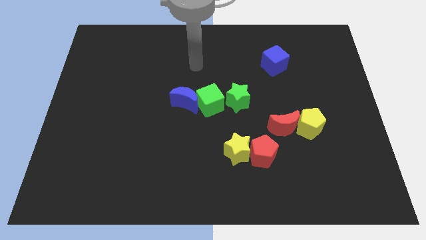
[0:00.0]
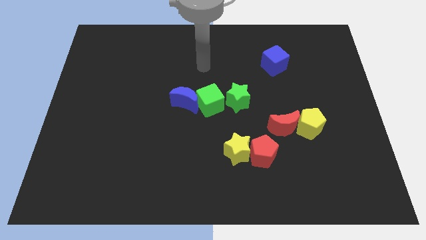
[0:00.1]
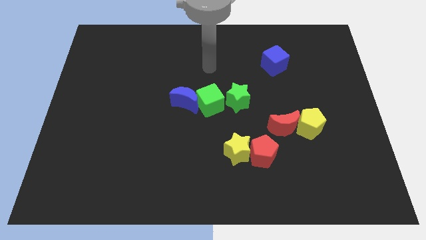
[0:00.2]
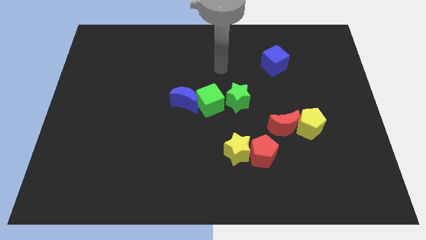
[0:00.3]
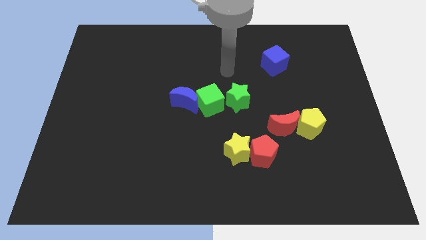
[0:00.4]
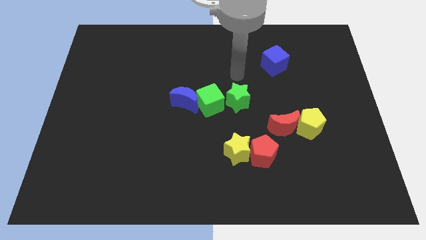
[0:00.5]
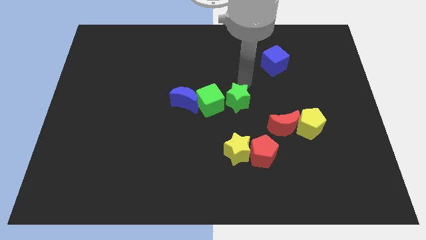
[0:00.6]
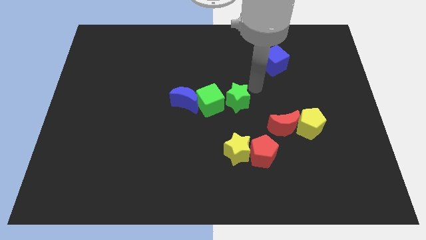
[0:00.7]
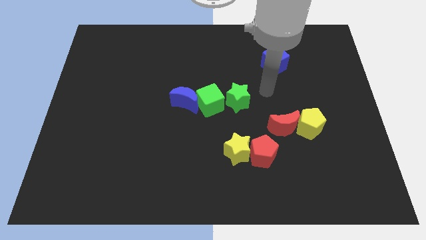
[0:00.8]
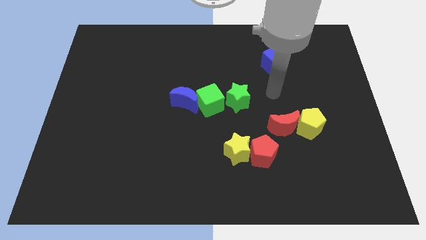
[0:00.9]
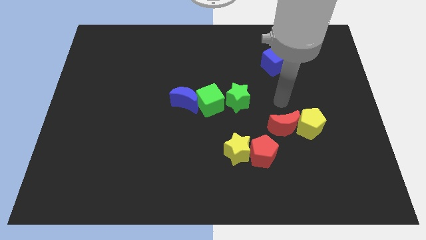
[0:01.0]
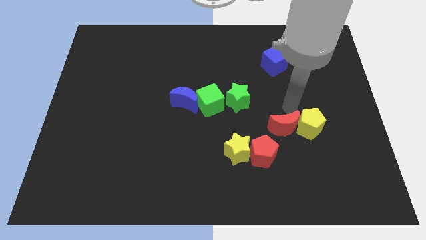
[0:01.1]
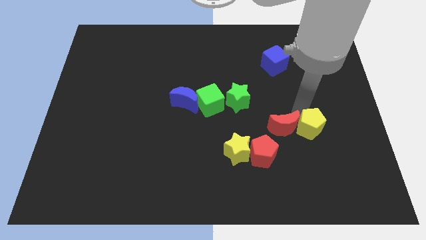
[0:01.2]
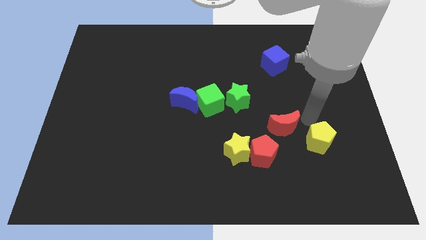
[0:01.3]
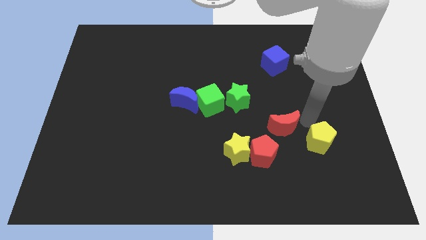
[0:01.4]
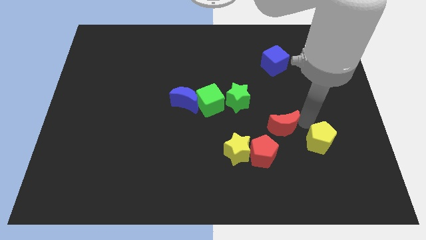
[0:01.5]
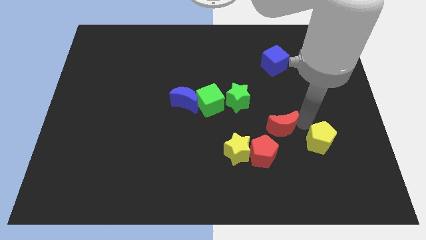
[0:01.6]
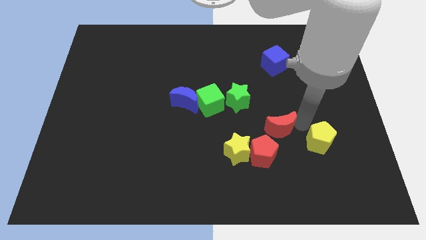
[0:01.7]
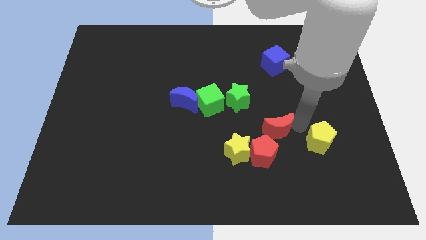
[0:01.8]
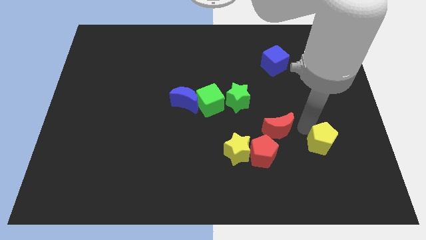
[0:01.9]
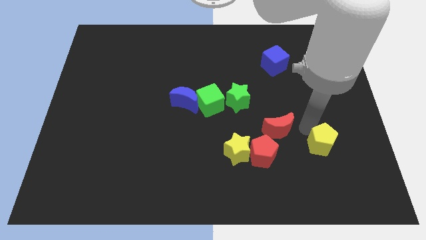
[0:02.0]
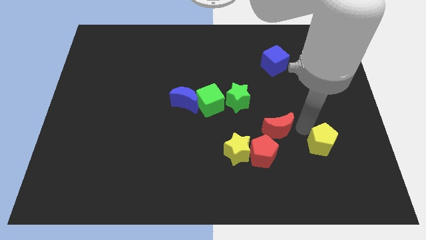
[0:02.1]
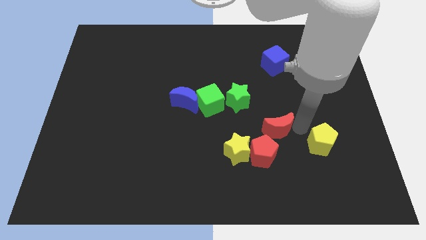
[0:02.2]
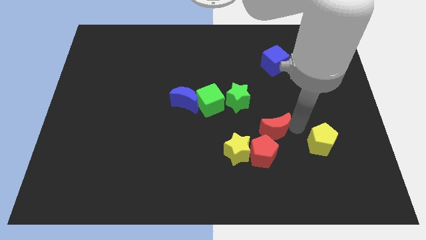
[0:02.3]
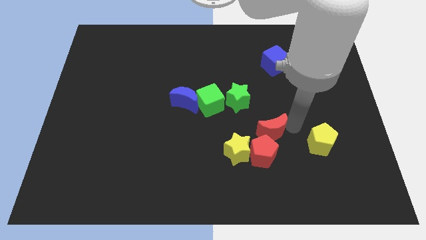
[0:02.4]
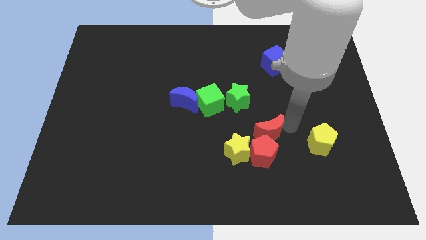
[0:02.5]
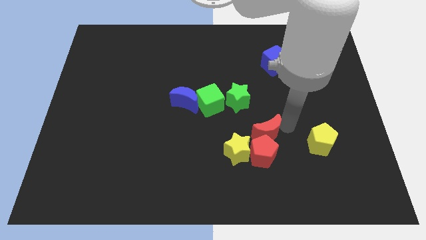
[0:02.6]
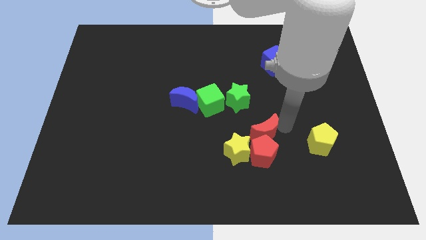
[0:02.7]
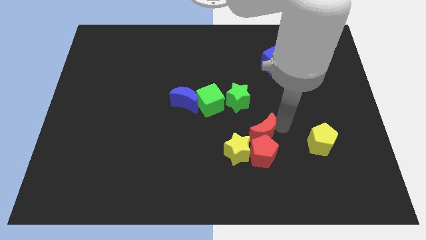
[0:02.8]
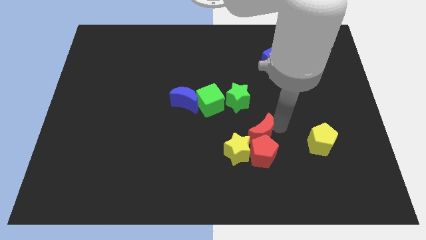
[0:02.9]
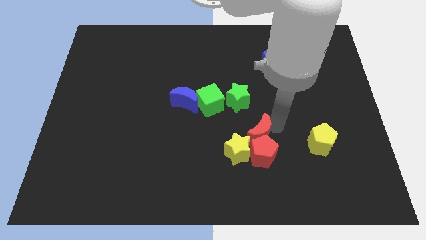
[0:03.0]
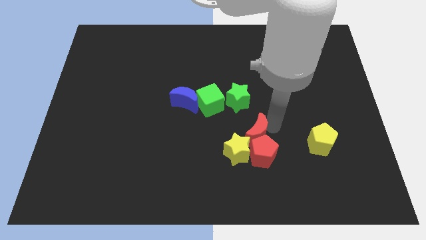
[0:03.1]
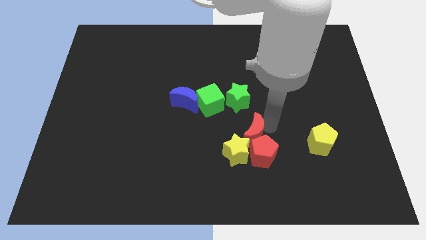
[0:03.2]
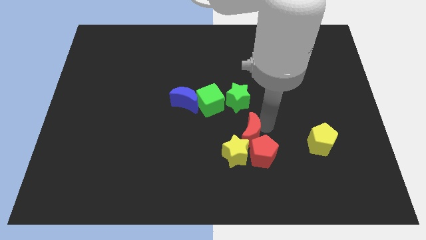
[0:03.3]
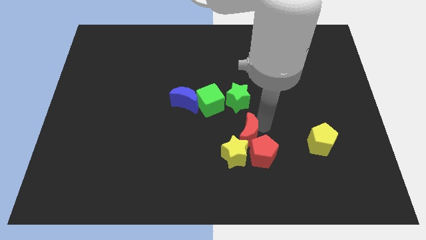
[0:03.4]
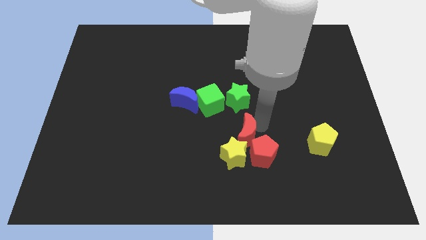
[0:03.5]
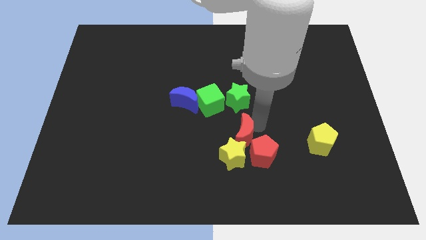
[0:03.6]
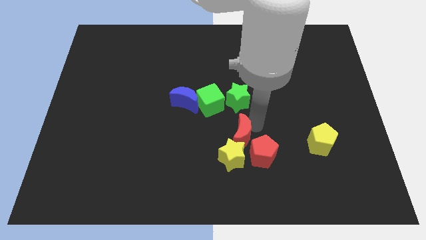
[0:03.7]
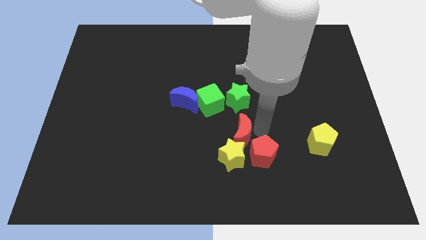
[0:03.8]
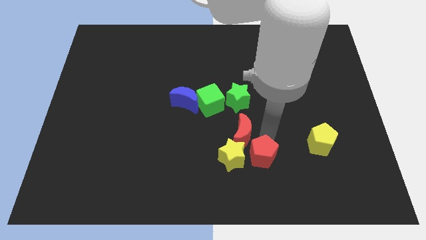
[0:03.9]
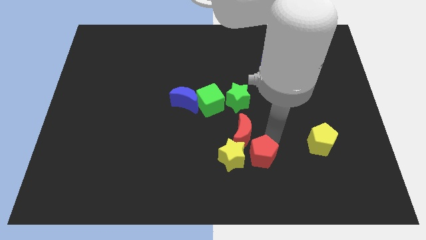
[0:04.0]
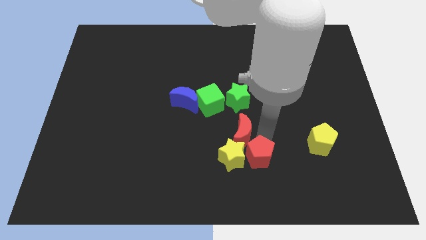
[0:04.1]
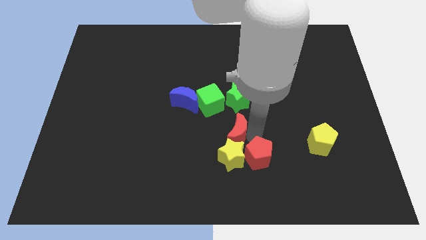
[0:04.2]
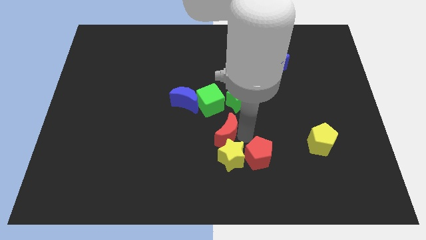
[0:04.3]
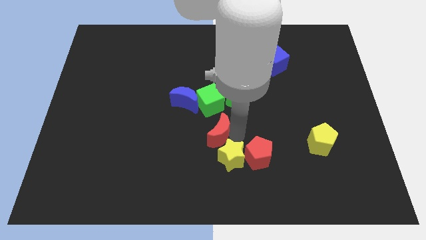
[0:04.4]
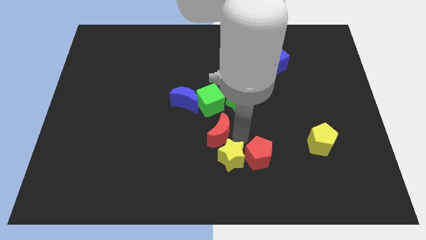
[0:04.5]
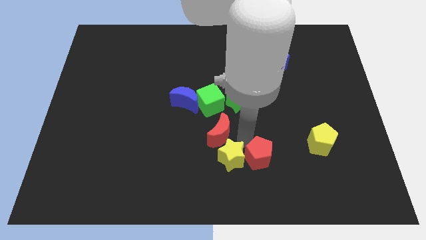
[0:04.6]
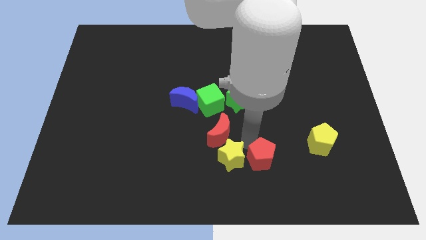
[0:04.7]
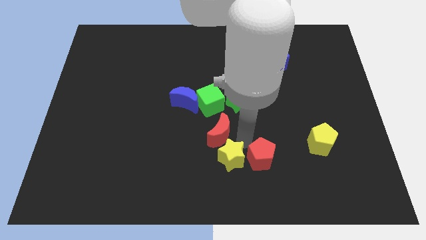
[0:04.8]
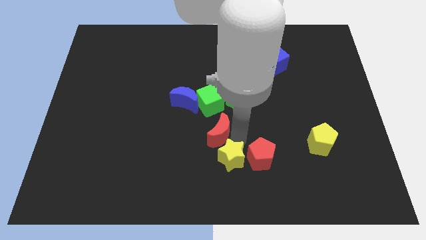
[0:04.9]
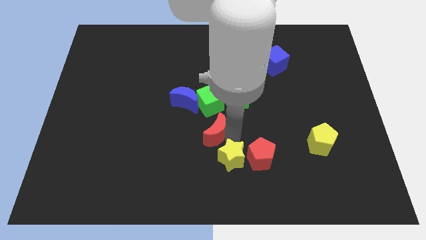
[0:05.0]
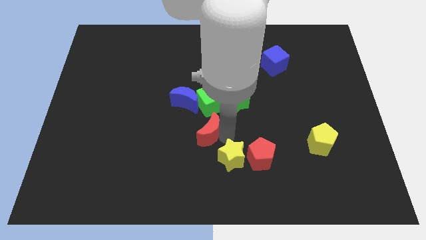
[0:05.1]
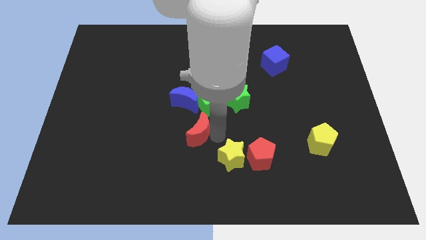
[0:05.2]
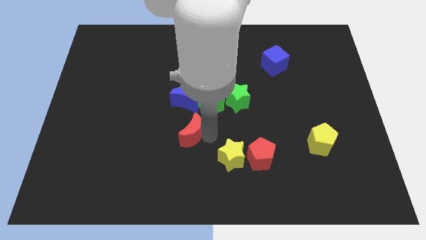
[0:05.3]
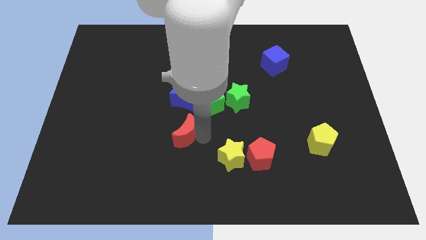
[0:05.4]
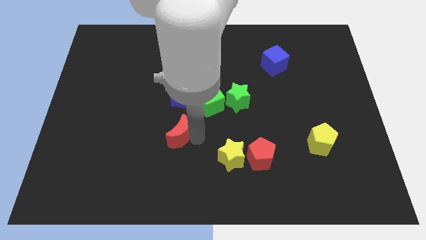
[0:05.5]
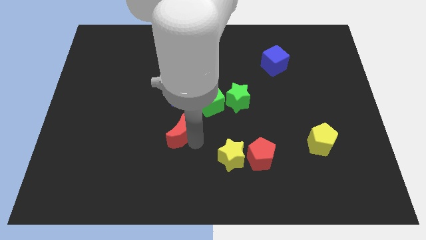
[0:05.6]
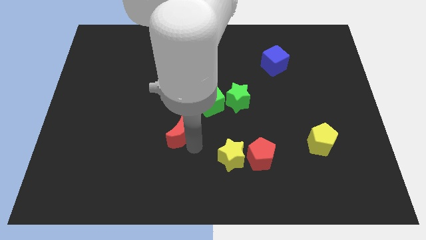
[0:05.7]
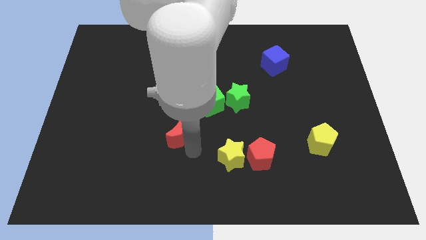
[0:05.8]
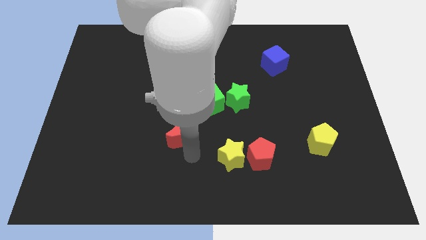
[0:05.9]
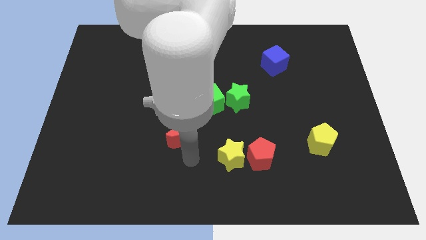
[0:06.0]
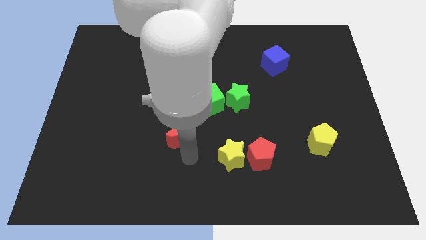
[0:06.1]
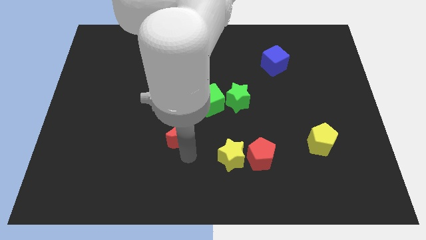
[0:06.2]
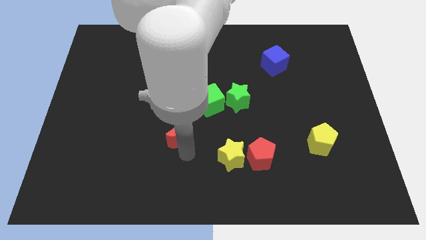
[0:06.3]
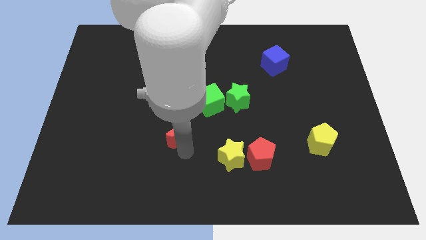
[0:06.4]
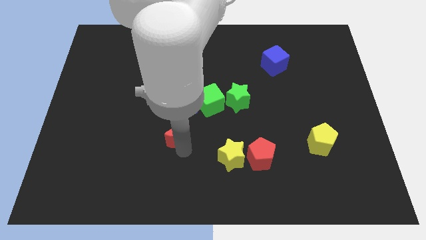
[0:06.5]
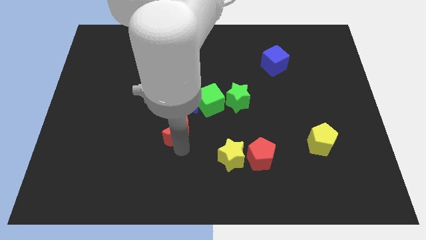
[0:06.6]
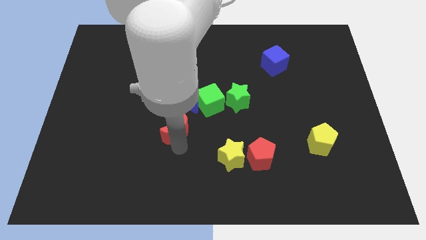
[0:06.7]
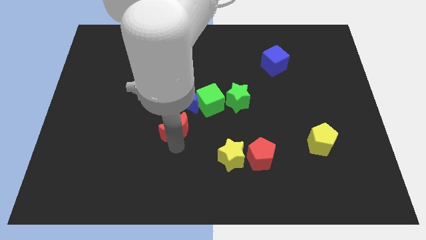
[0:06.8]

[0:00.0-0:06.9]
move the red moon to the bottom left of the blue moon
